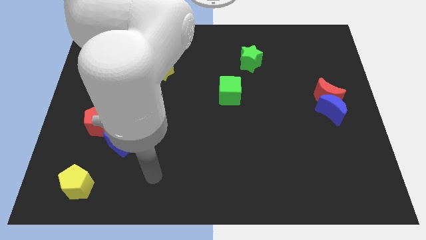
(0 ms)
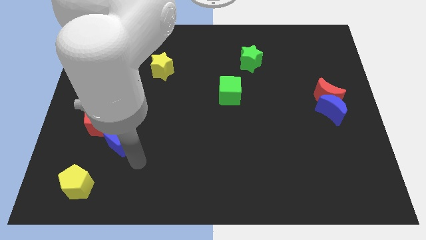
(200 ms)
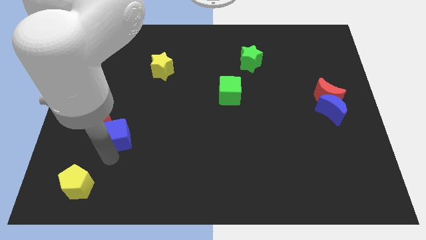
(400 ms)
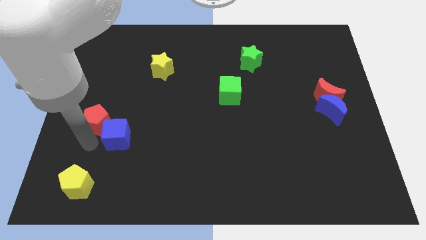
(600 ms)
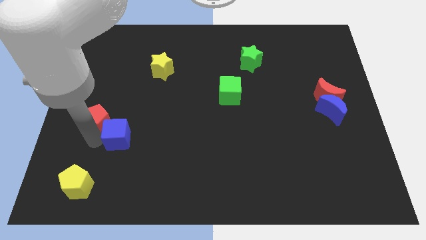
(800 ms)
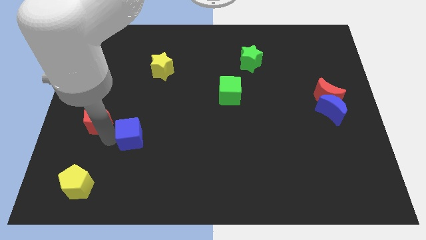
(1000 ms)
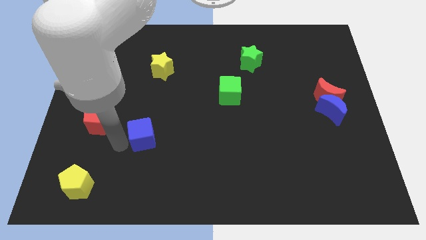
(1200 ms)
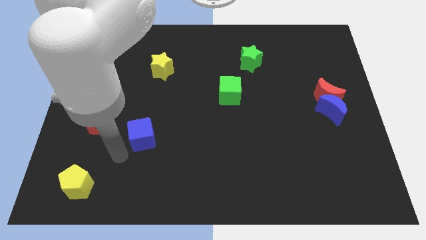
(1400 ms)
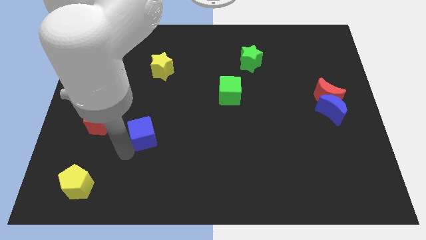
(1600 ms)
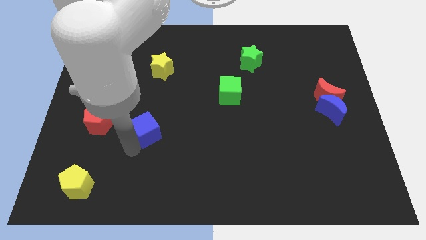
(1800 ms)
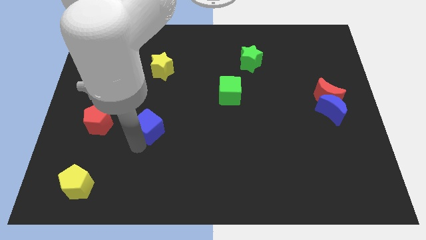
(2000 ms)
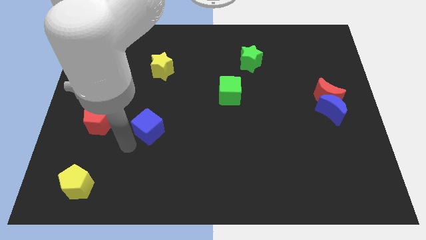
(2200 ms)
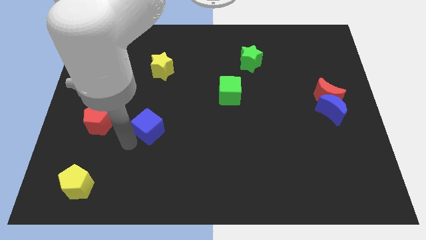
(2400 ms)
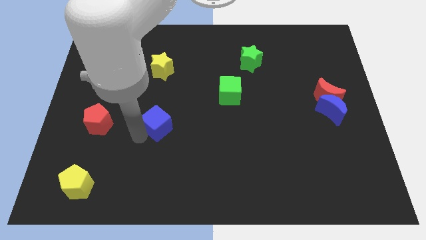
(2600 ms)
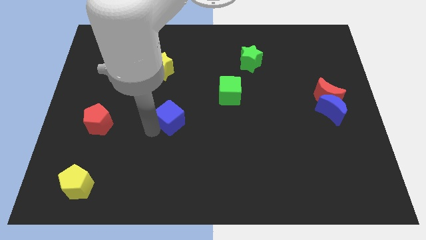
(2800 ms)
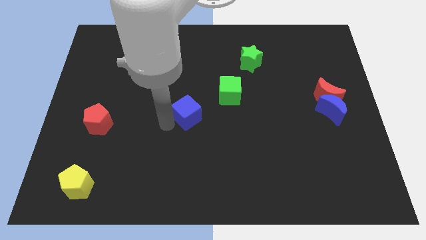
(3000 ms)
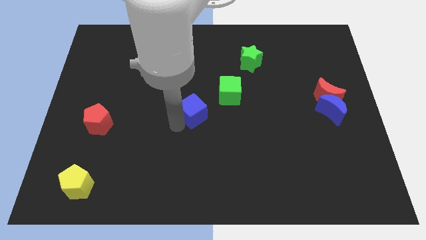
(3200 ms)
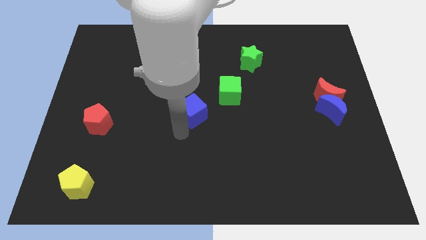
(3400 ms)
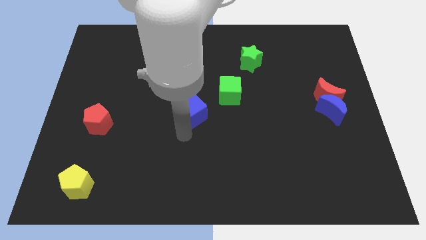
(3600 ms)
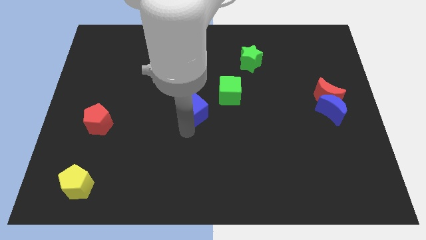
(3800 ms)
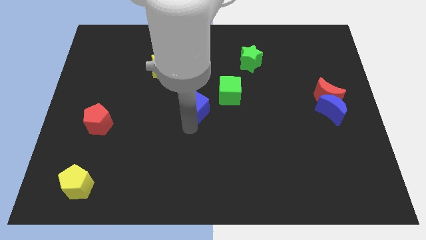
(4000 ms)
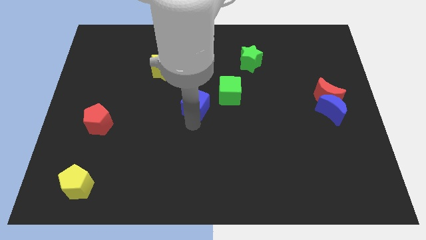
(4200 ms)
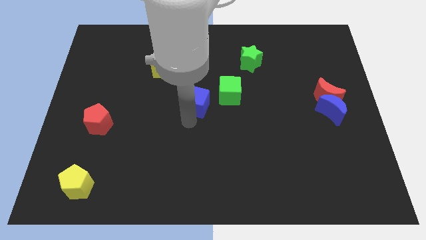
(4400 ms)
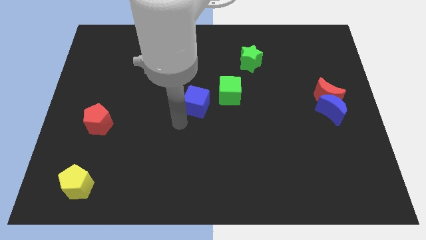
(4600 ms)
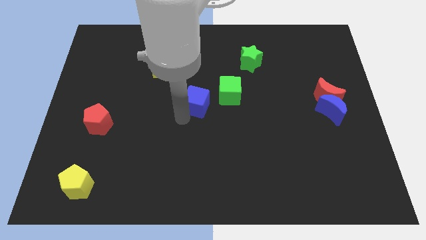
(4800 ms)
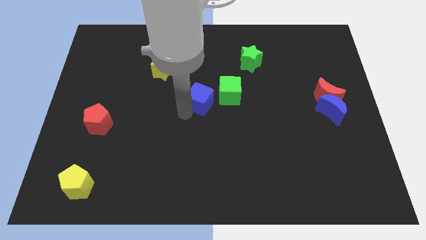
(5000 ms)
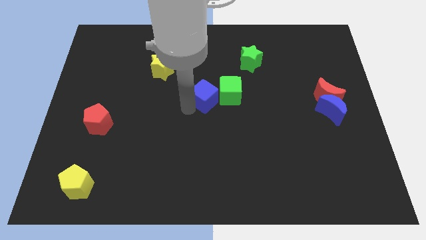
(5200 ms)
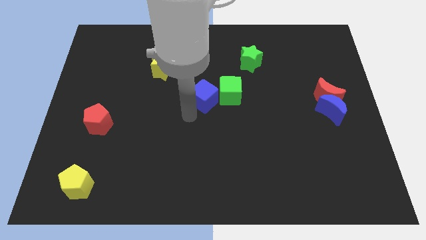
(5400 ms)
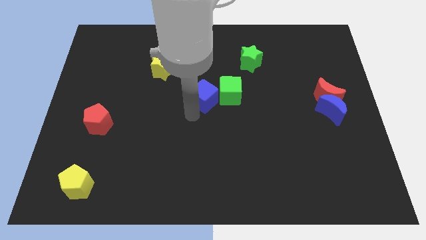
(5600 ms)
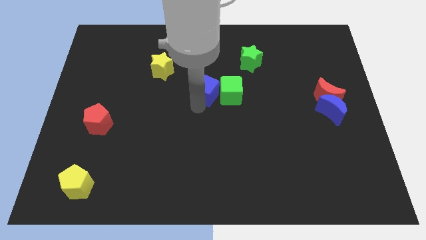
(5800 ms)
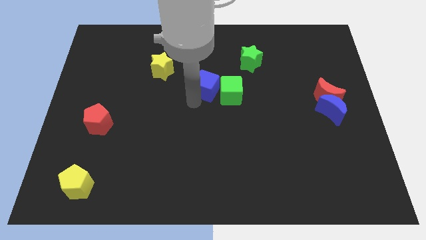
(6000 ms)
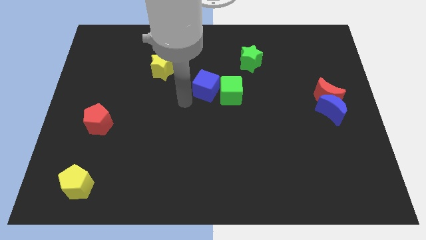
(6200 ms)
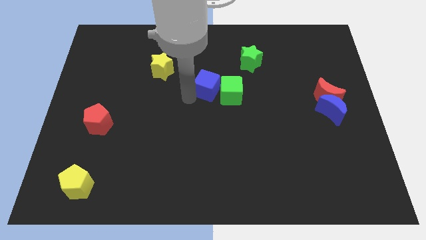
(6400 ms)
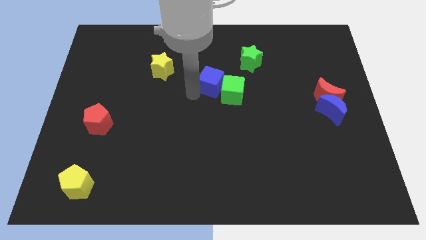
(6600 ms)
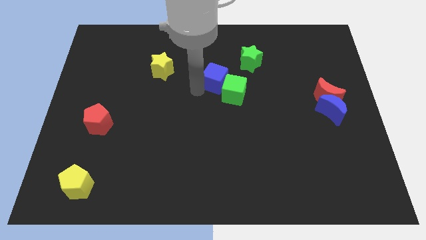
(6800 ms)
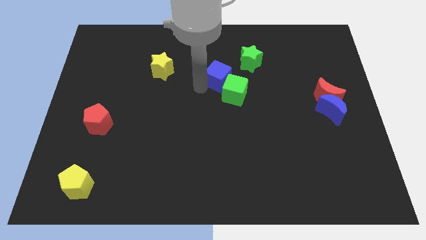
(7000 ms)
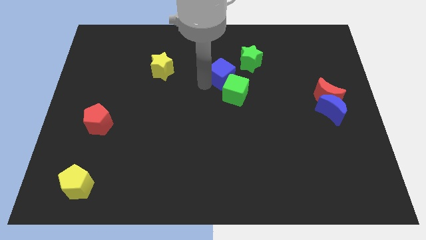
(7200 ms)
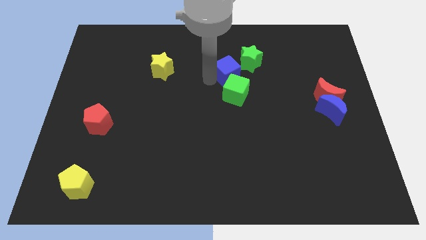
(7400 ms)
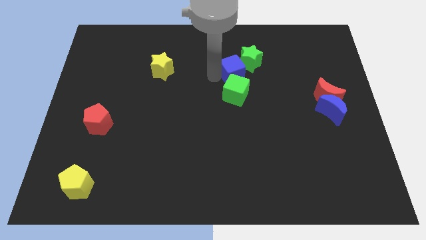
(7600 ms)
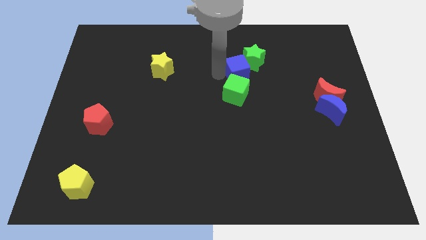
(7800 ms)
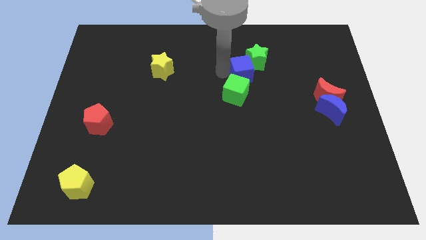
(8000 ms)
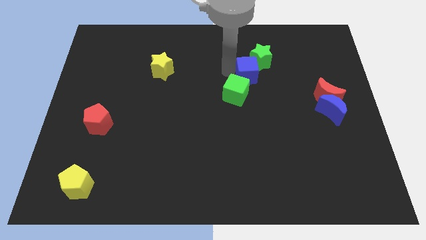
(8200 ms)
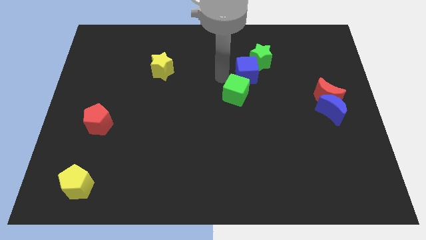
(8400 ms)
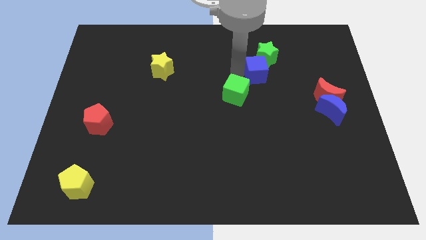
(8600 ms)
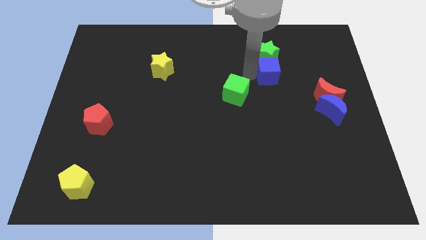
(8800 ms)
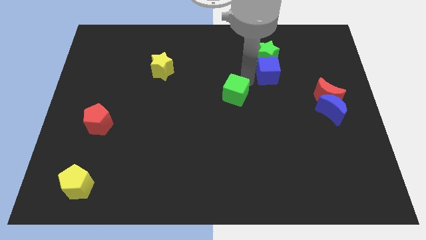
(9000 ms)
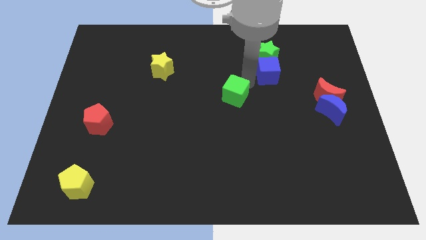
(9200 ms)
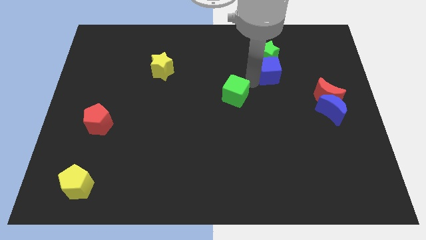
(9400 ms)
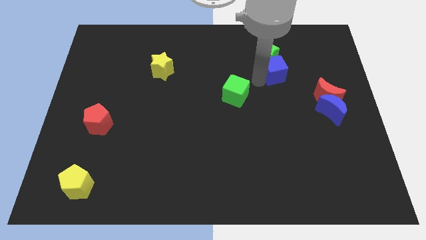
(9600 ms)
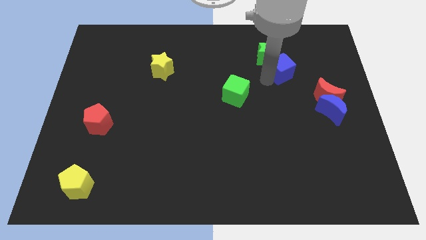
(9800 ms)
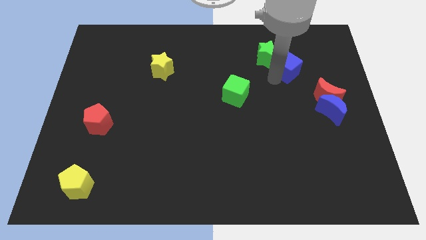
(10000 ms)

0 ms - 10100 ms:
slide the blue cube to the right side of the green star

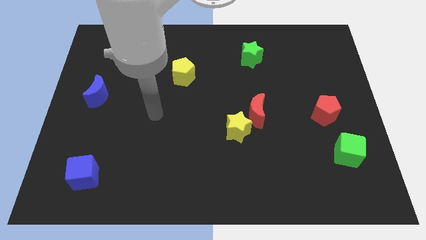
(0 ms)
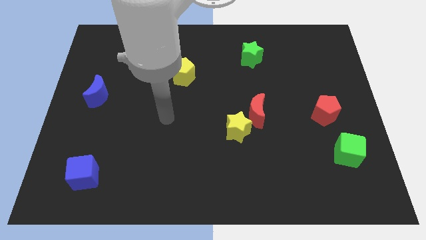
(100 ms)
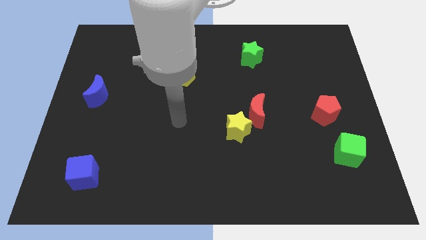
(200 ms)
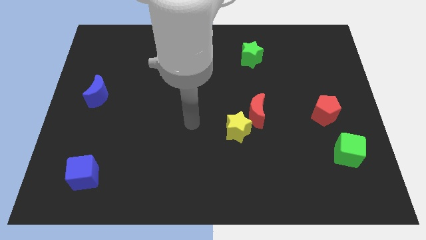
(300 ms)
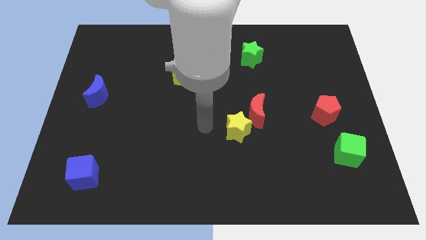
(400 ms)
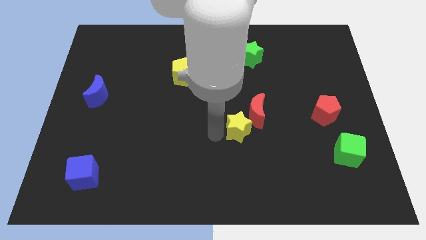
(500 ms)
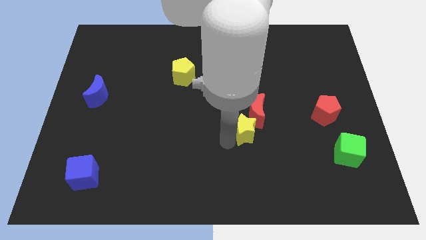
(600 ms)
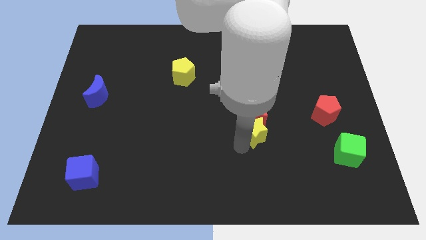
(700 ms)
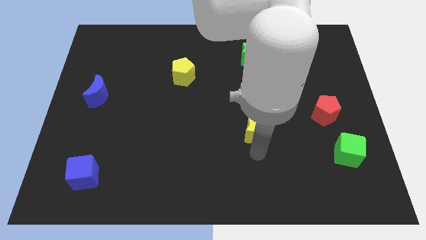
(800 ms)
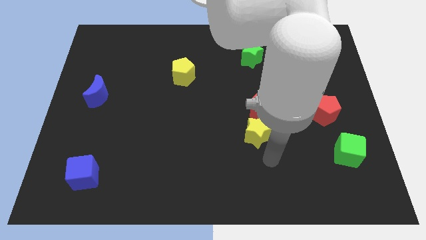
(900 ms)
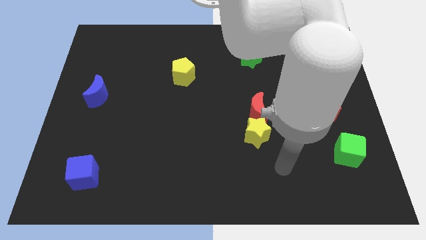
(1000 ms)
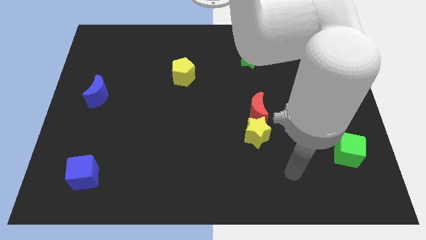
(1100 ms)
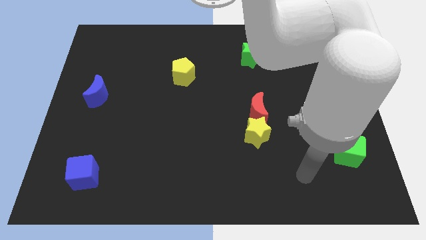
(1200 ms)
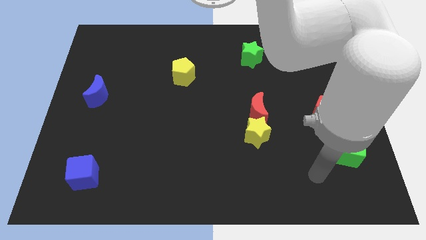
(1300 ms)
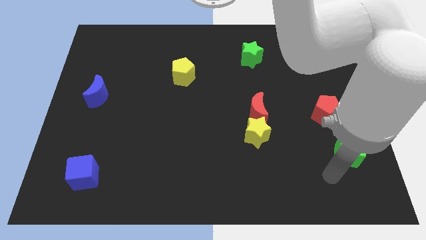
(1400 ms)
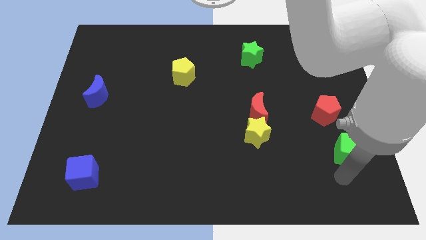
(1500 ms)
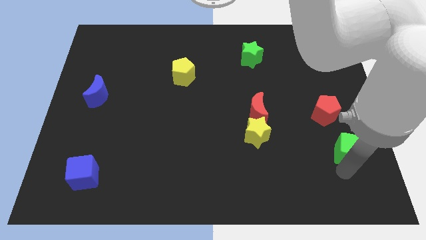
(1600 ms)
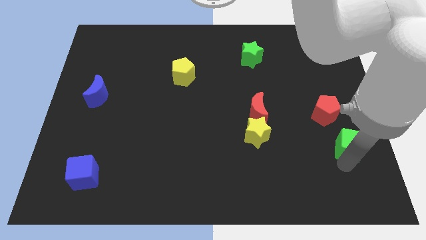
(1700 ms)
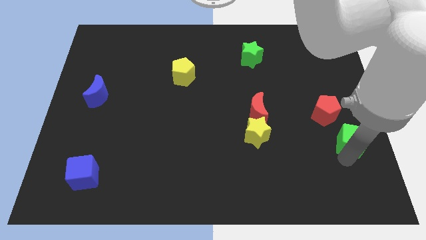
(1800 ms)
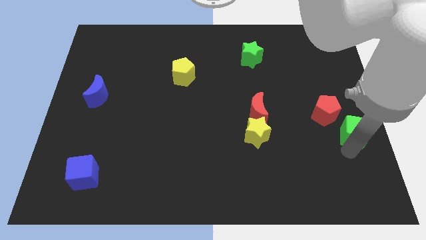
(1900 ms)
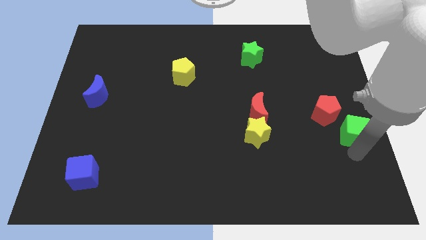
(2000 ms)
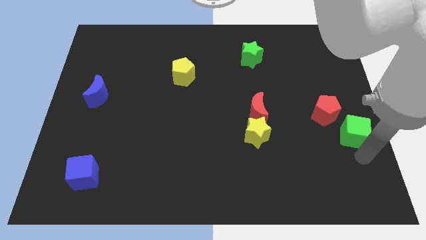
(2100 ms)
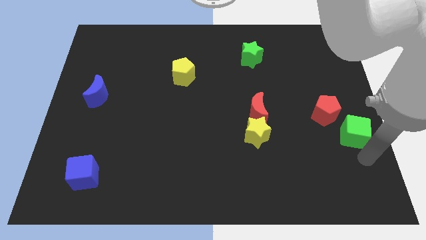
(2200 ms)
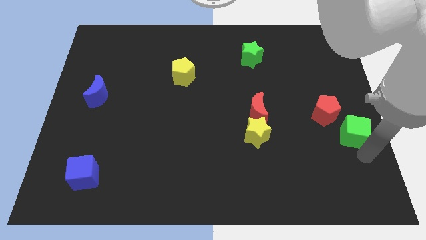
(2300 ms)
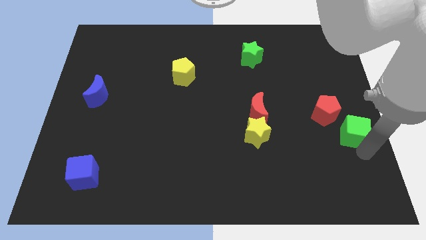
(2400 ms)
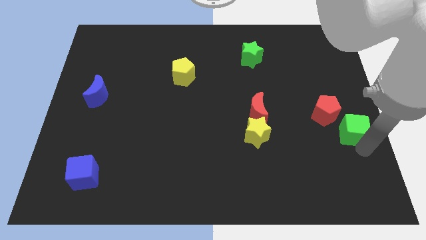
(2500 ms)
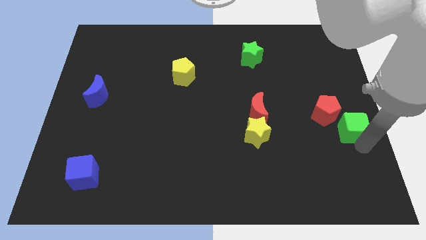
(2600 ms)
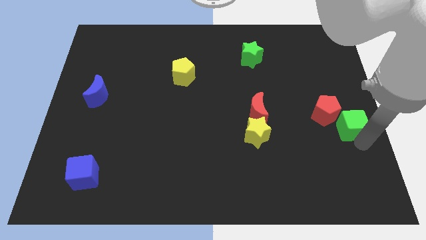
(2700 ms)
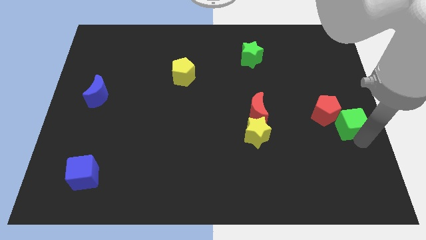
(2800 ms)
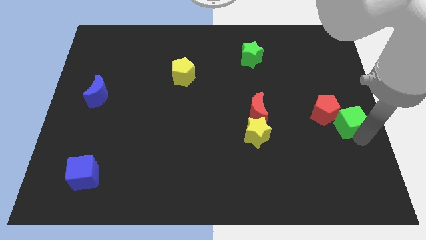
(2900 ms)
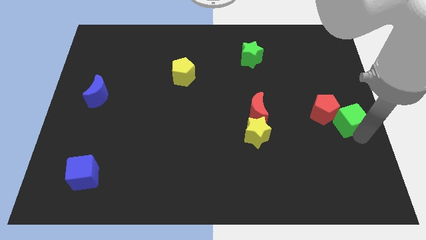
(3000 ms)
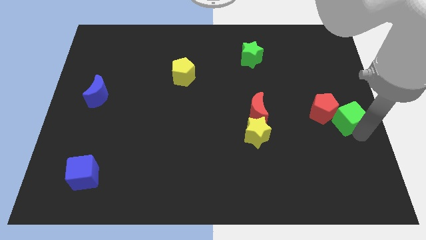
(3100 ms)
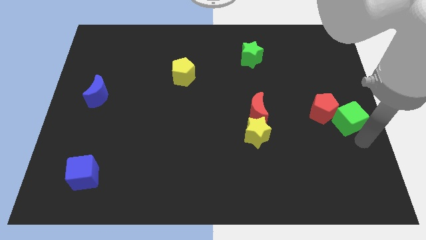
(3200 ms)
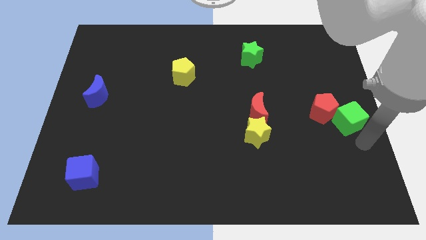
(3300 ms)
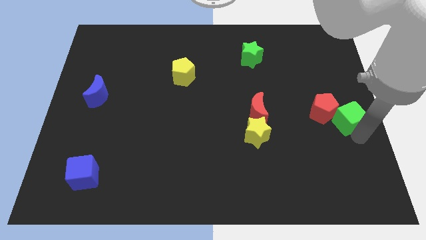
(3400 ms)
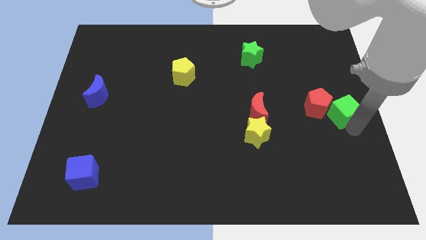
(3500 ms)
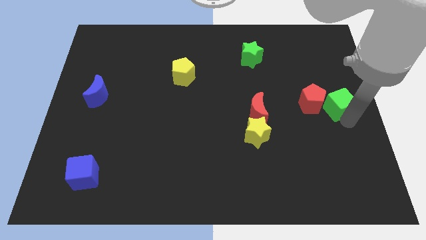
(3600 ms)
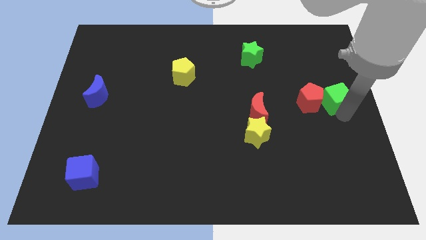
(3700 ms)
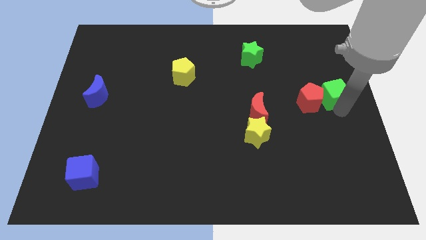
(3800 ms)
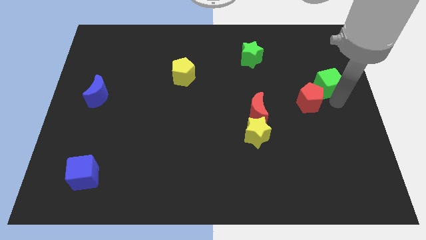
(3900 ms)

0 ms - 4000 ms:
put the green cube to the top side of the red pentagon
